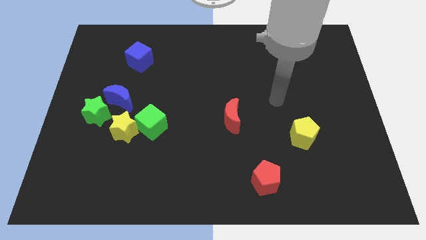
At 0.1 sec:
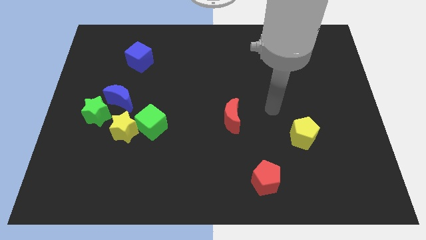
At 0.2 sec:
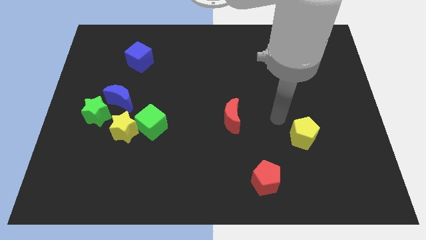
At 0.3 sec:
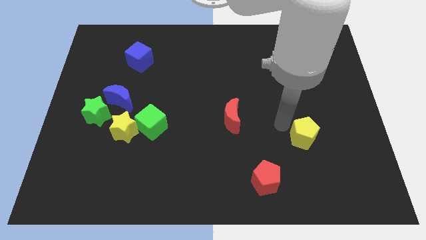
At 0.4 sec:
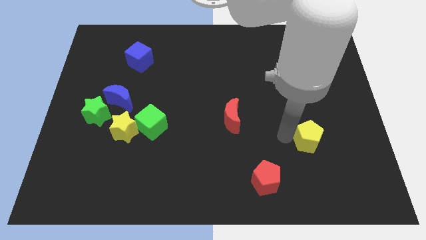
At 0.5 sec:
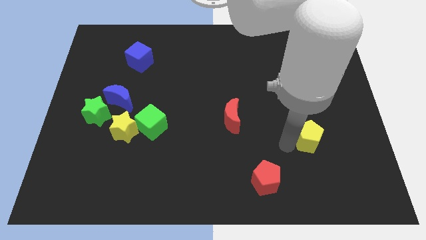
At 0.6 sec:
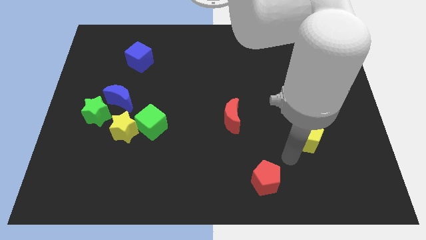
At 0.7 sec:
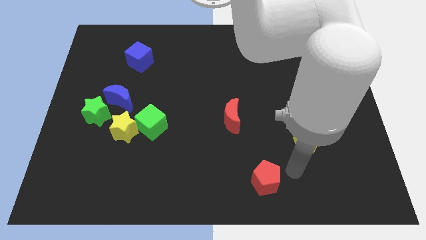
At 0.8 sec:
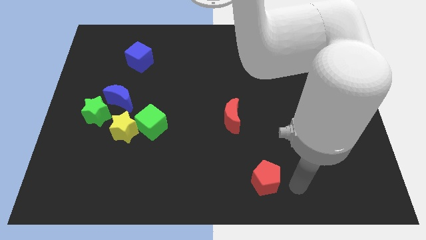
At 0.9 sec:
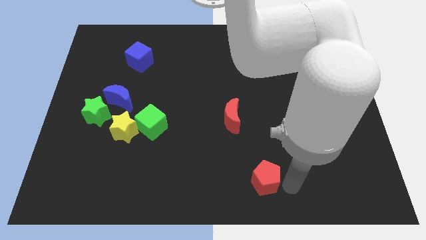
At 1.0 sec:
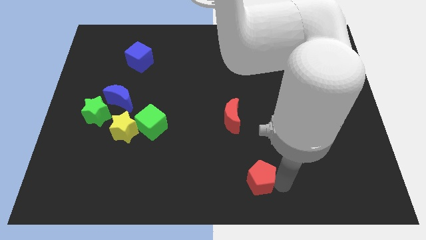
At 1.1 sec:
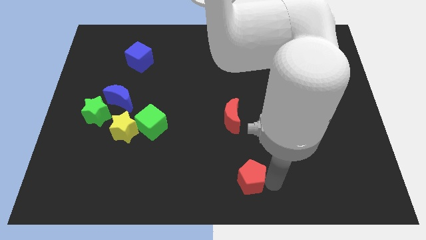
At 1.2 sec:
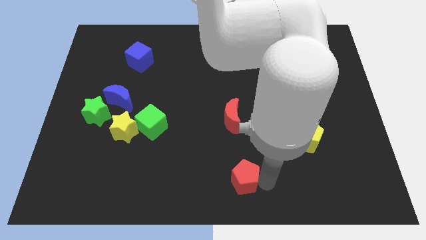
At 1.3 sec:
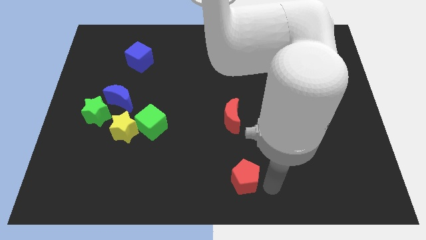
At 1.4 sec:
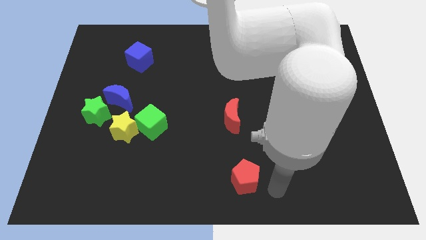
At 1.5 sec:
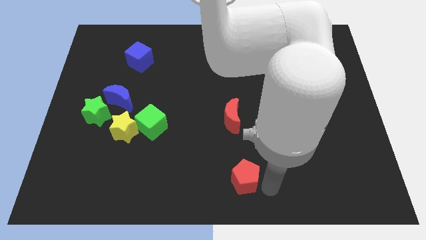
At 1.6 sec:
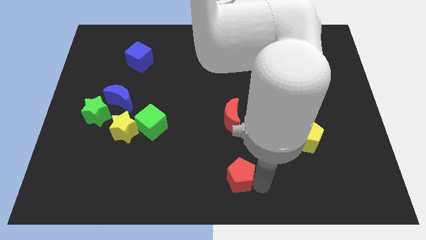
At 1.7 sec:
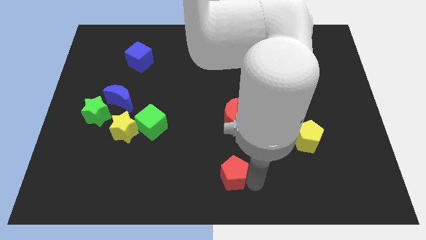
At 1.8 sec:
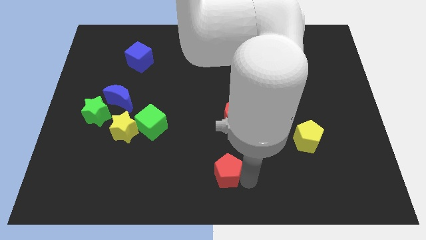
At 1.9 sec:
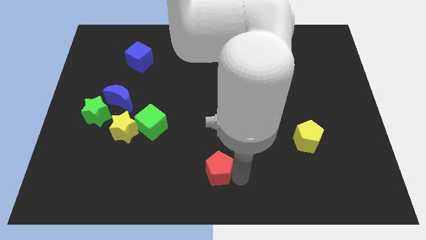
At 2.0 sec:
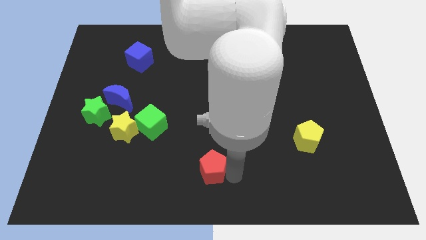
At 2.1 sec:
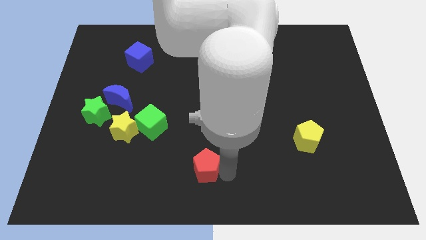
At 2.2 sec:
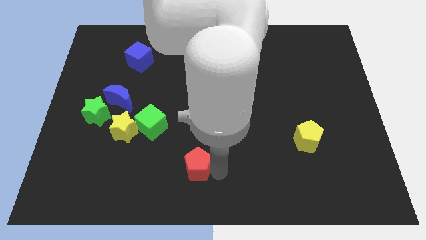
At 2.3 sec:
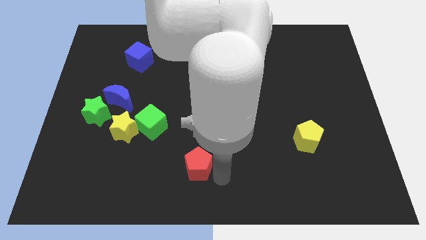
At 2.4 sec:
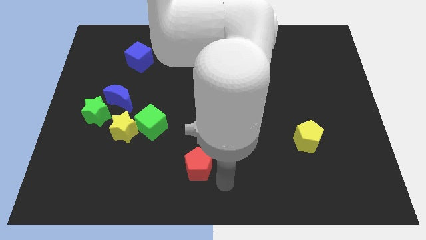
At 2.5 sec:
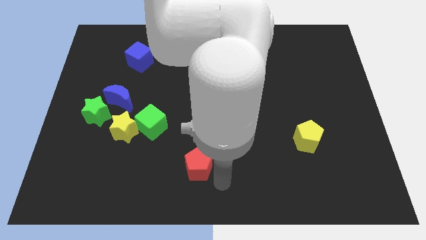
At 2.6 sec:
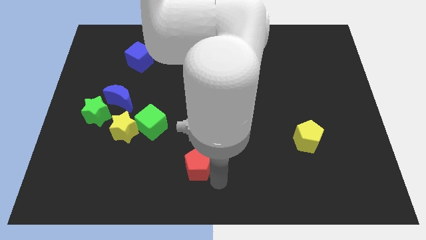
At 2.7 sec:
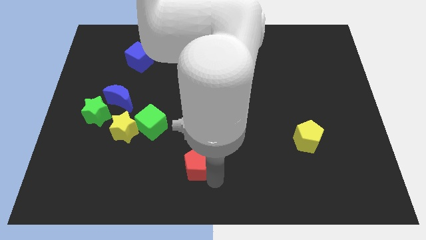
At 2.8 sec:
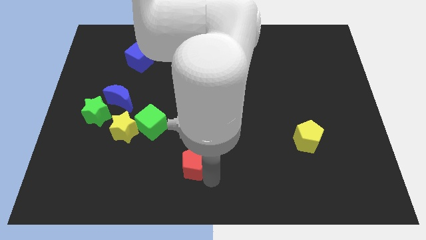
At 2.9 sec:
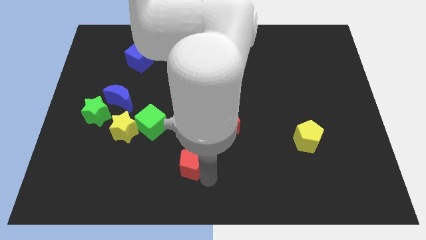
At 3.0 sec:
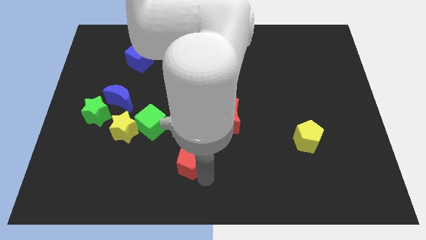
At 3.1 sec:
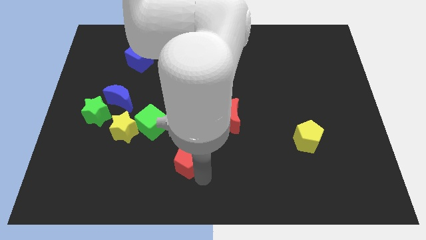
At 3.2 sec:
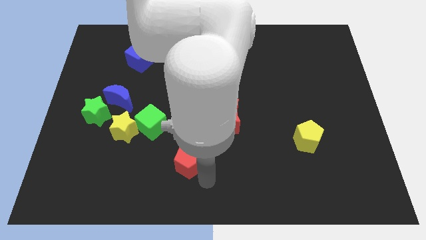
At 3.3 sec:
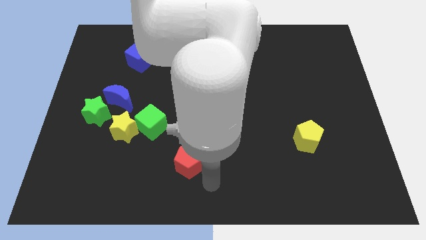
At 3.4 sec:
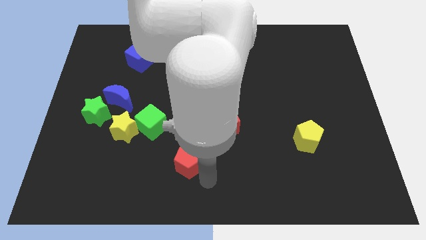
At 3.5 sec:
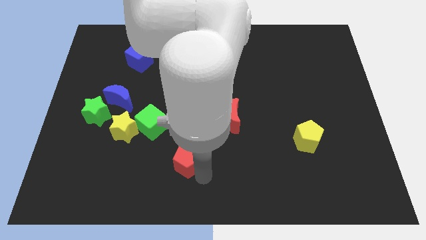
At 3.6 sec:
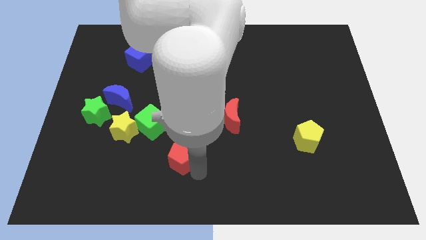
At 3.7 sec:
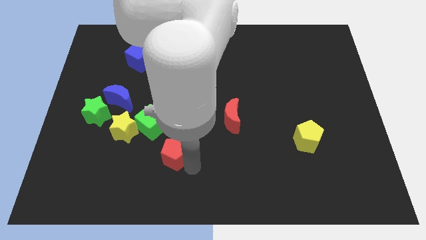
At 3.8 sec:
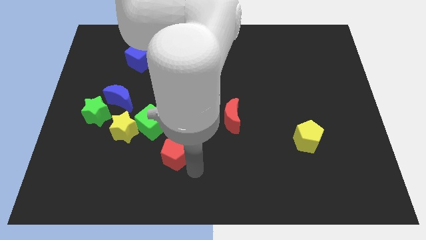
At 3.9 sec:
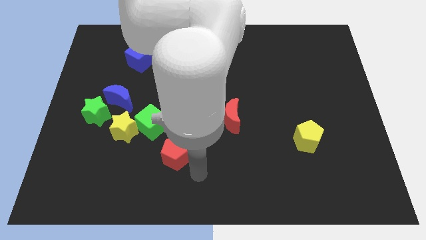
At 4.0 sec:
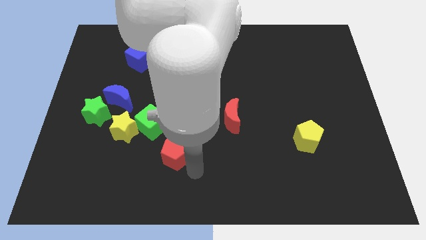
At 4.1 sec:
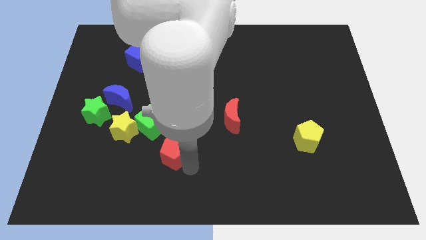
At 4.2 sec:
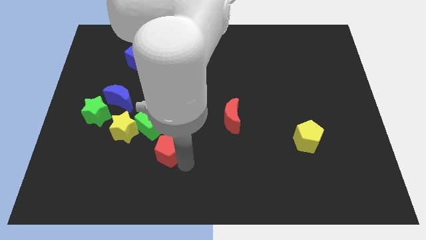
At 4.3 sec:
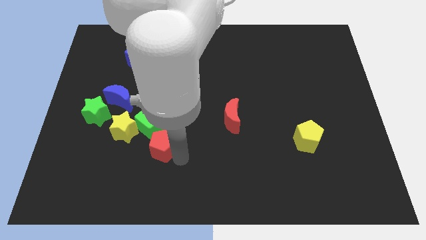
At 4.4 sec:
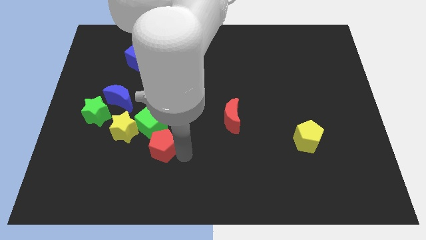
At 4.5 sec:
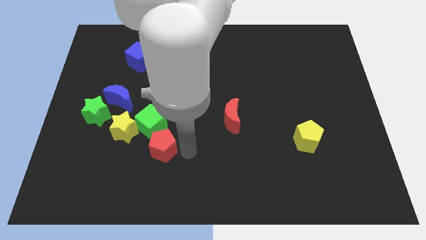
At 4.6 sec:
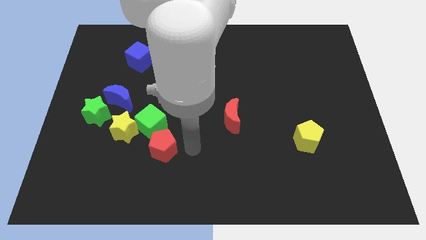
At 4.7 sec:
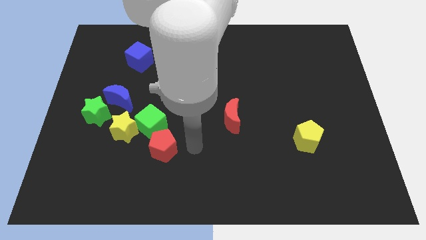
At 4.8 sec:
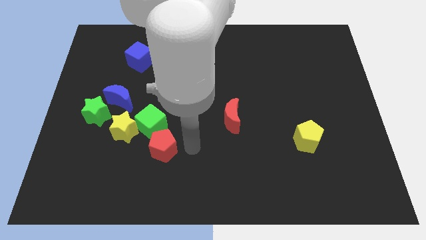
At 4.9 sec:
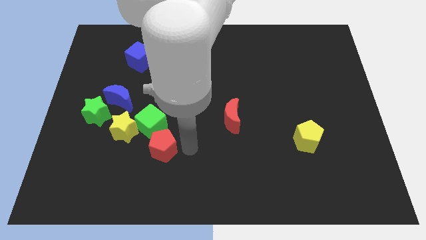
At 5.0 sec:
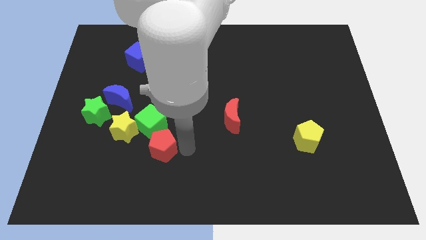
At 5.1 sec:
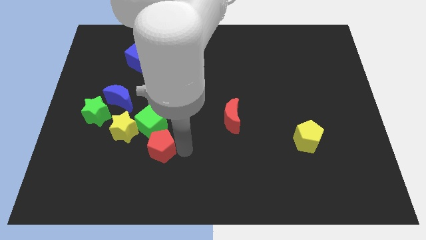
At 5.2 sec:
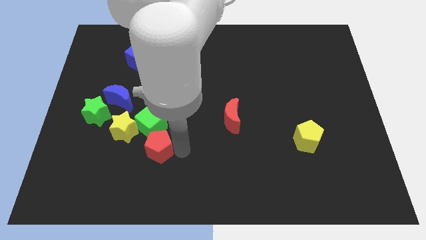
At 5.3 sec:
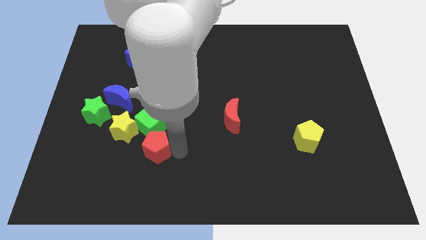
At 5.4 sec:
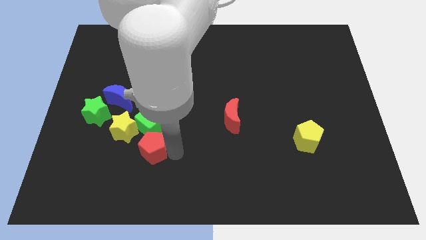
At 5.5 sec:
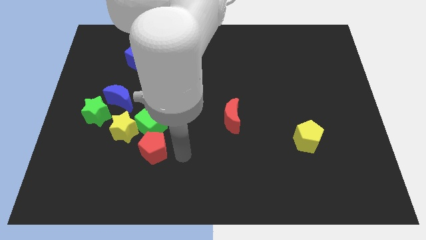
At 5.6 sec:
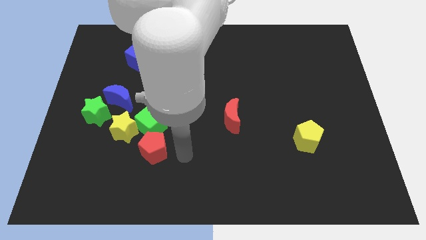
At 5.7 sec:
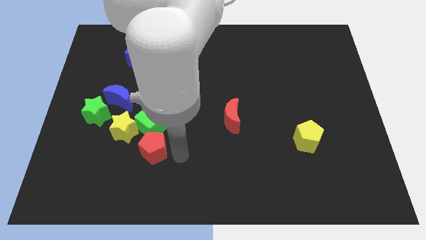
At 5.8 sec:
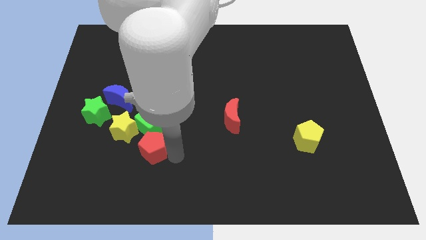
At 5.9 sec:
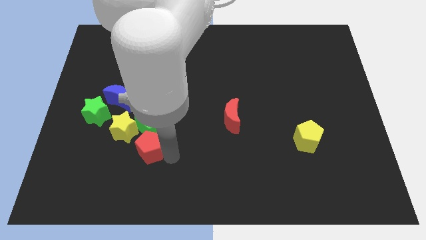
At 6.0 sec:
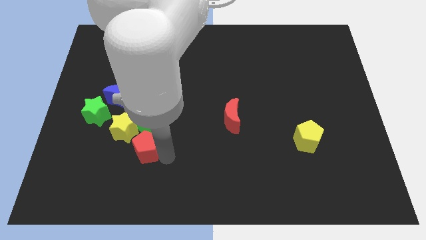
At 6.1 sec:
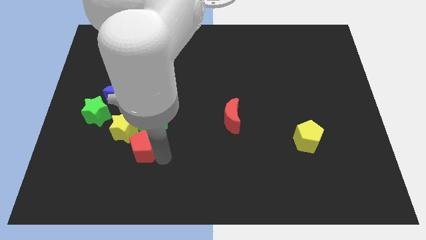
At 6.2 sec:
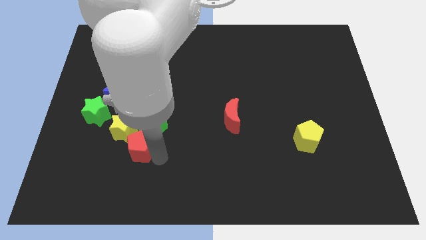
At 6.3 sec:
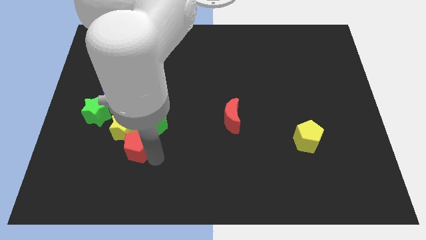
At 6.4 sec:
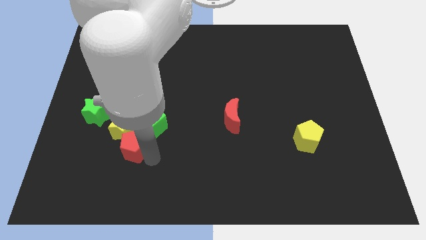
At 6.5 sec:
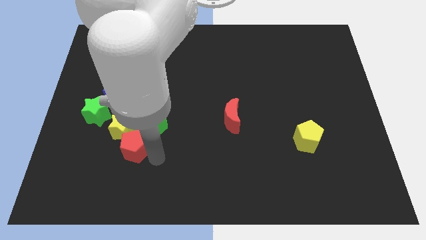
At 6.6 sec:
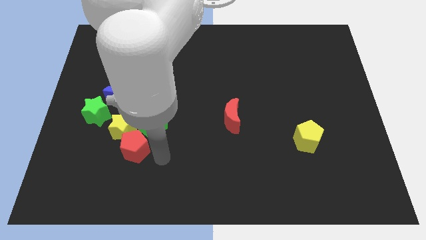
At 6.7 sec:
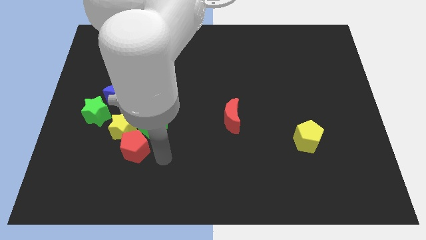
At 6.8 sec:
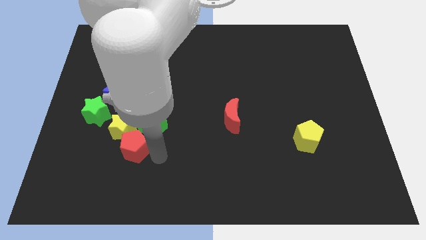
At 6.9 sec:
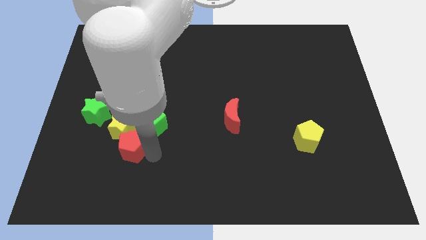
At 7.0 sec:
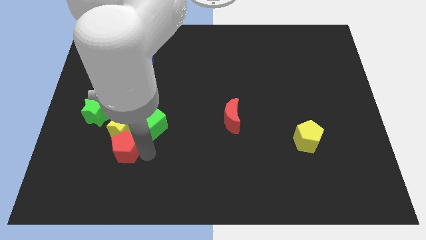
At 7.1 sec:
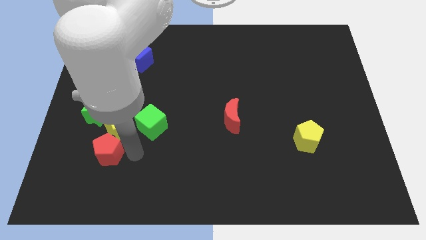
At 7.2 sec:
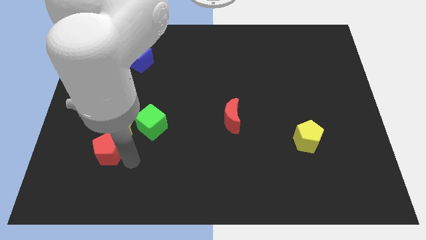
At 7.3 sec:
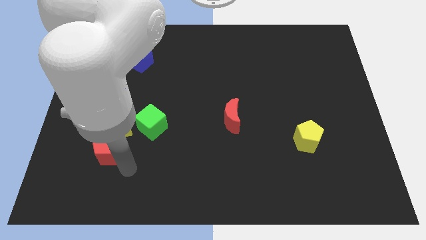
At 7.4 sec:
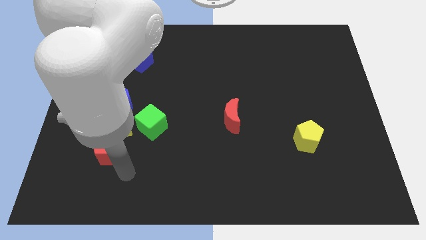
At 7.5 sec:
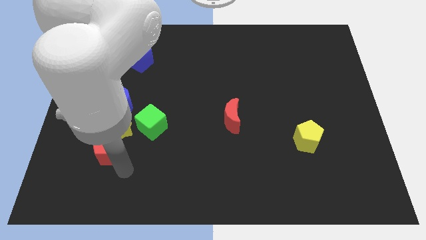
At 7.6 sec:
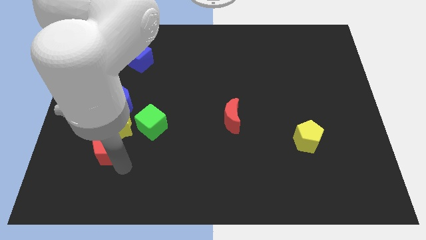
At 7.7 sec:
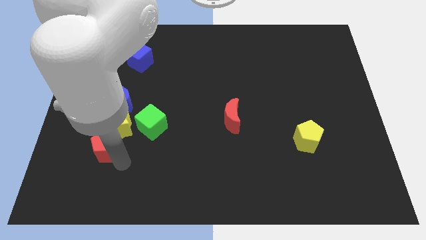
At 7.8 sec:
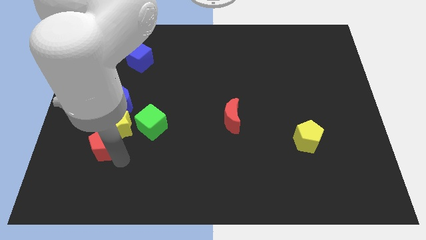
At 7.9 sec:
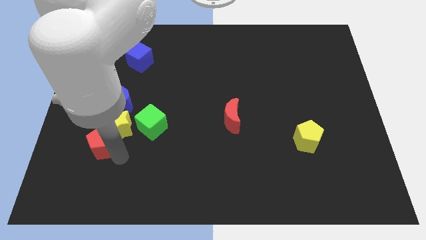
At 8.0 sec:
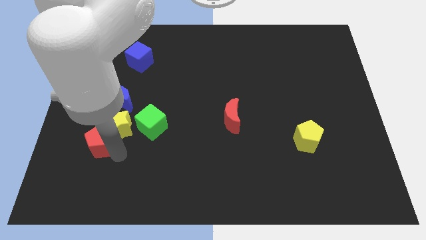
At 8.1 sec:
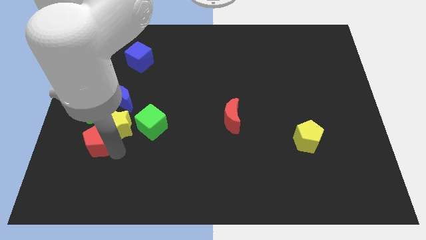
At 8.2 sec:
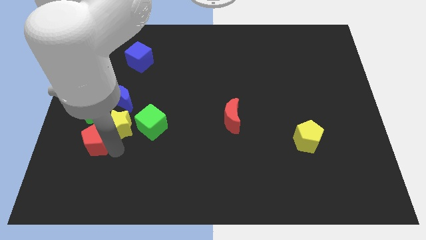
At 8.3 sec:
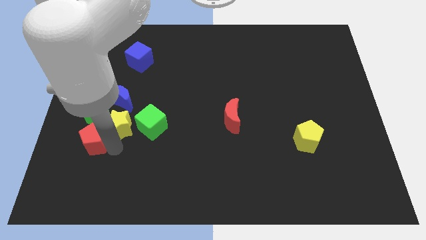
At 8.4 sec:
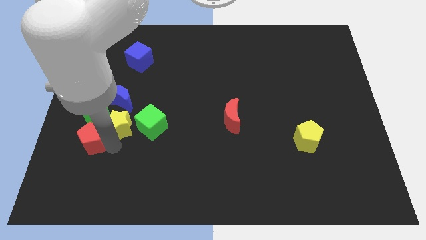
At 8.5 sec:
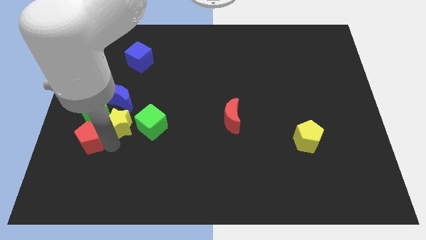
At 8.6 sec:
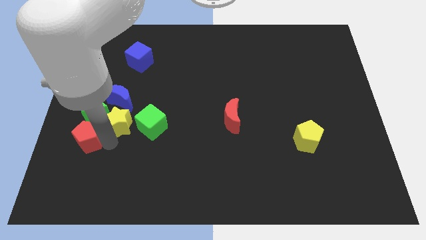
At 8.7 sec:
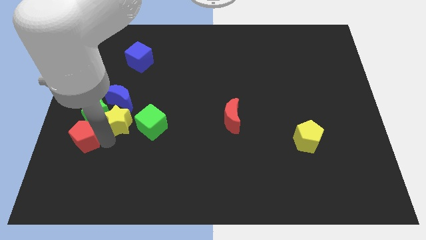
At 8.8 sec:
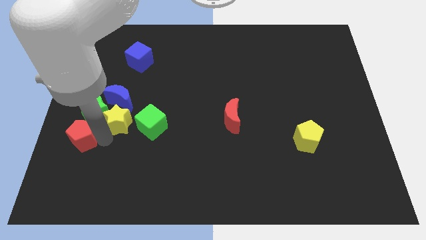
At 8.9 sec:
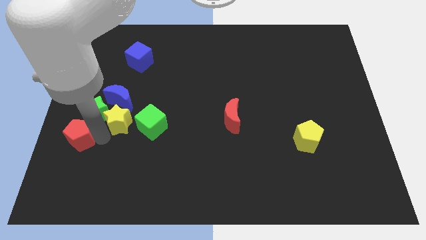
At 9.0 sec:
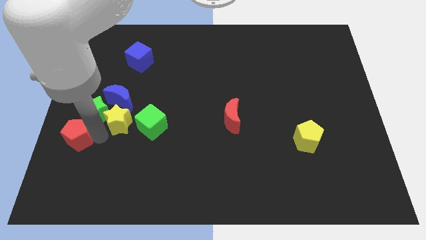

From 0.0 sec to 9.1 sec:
move the red pentagon to the center left
